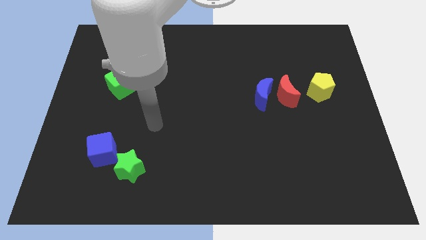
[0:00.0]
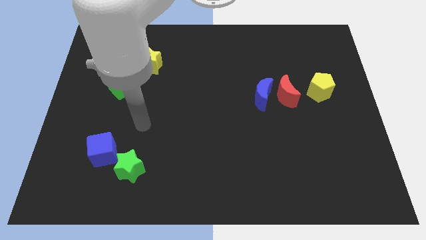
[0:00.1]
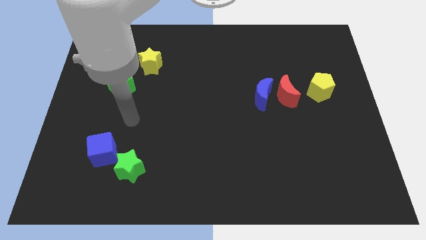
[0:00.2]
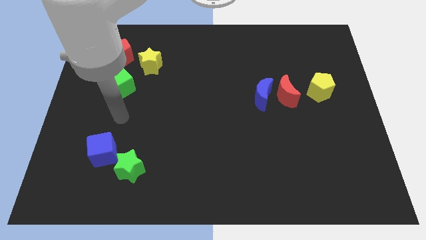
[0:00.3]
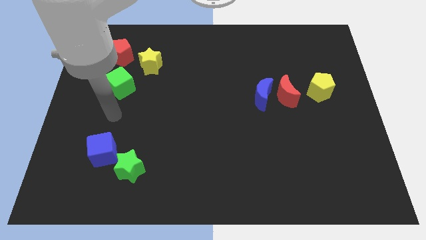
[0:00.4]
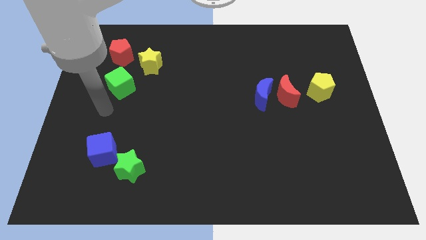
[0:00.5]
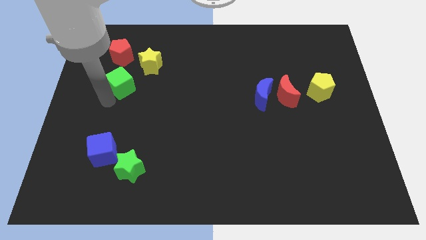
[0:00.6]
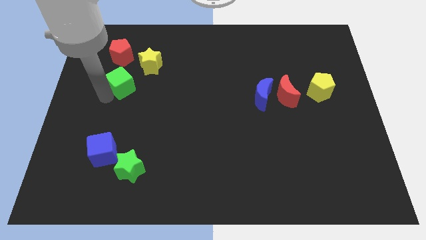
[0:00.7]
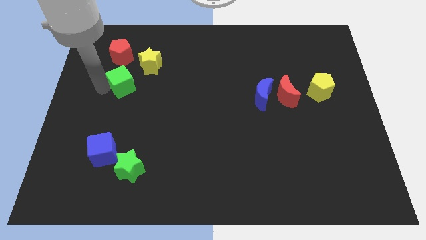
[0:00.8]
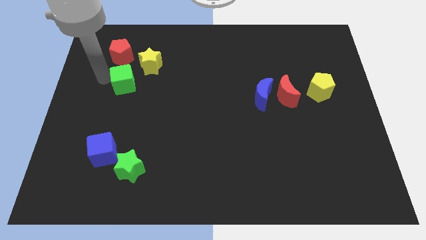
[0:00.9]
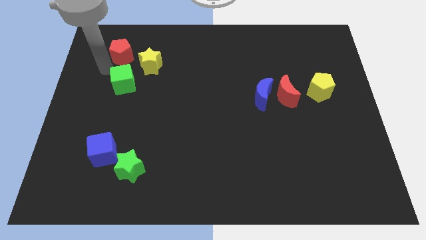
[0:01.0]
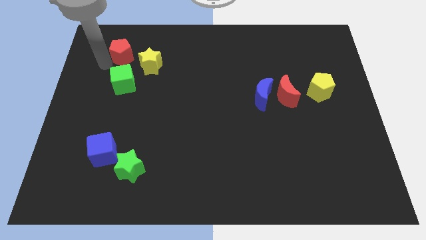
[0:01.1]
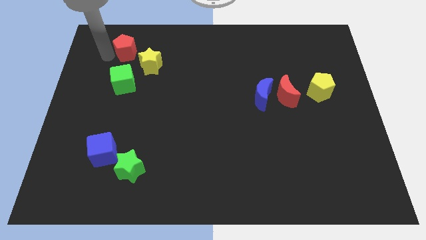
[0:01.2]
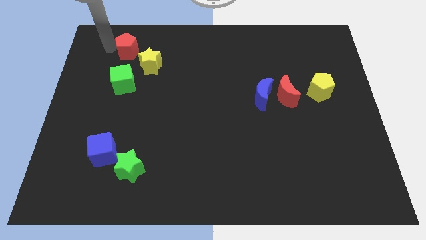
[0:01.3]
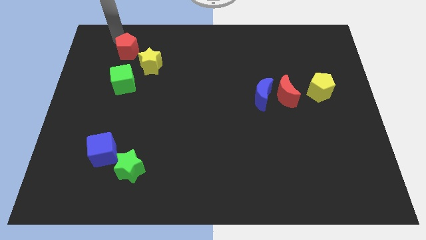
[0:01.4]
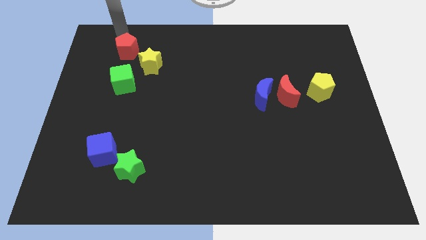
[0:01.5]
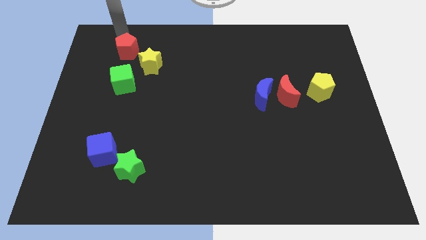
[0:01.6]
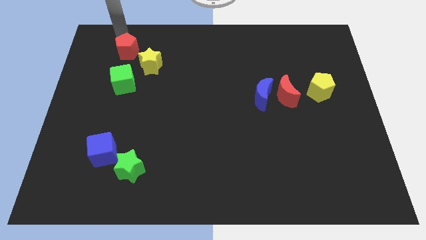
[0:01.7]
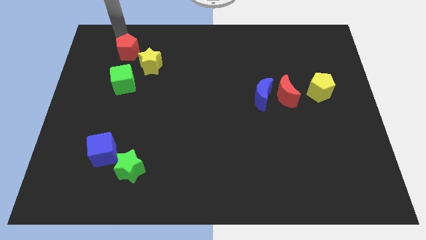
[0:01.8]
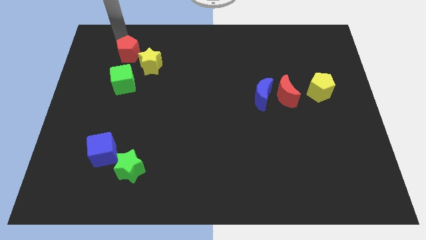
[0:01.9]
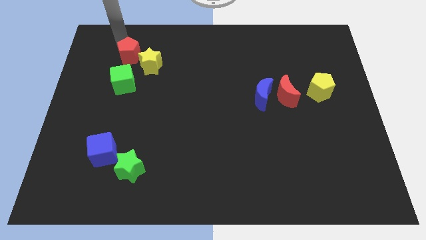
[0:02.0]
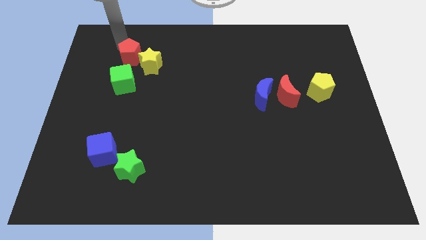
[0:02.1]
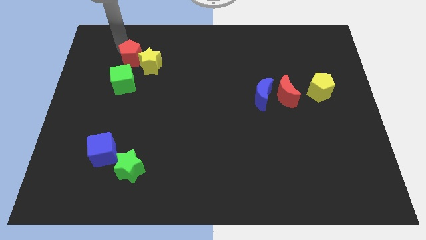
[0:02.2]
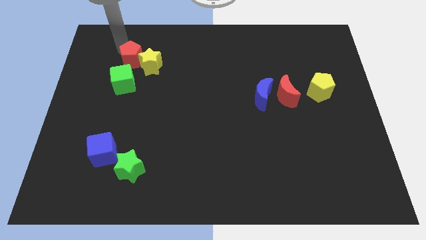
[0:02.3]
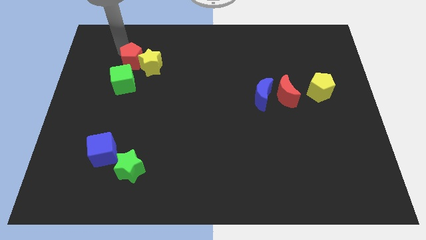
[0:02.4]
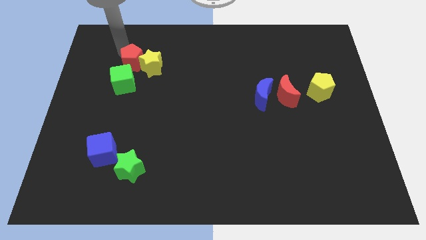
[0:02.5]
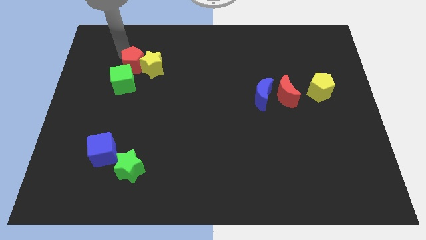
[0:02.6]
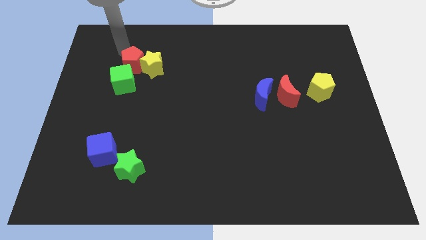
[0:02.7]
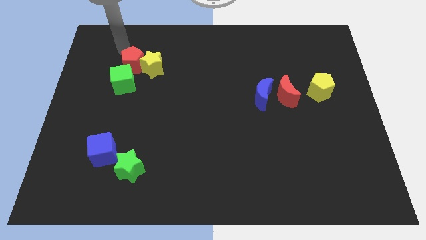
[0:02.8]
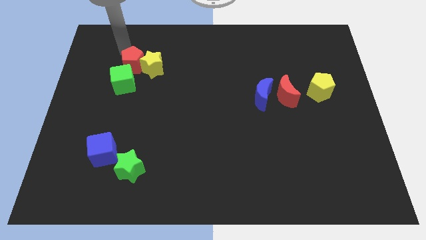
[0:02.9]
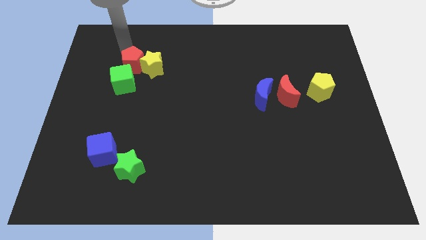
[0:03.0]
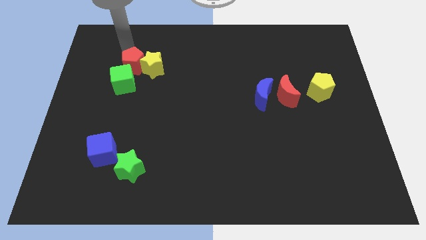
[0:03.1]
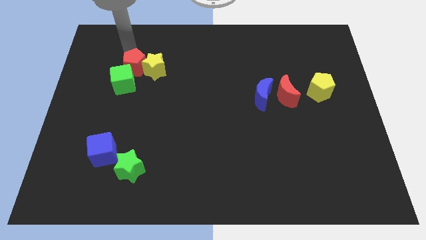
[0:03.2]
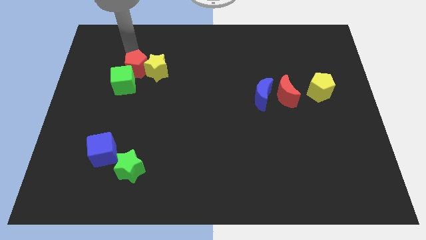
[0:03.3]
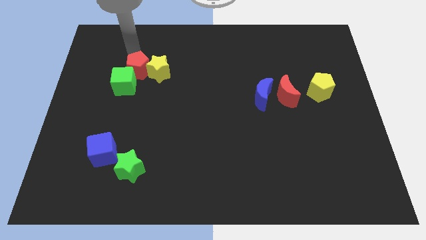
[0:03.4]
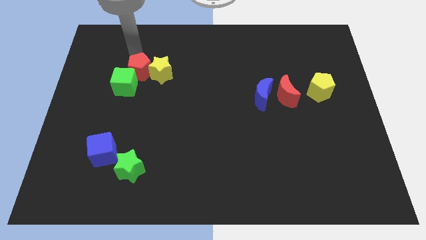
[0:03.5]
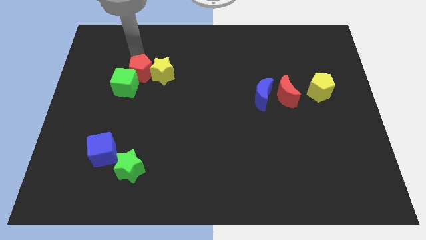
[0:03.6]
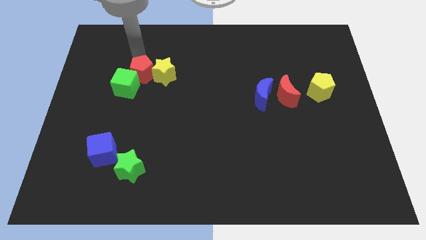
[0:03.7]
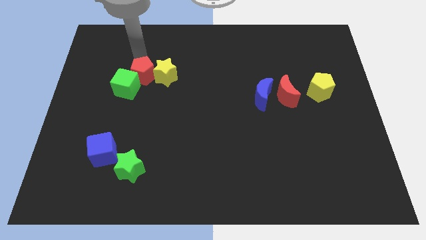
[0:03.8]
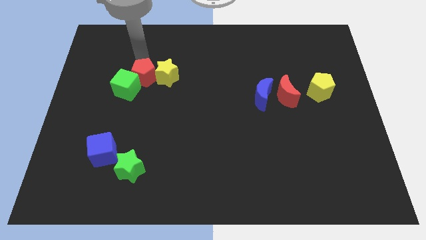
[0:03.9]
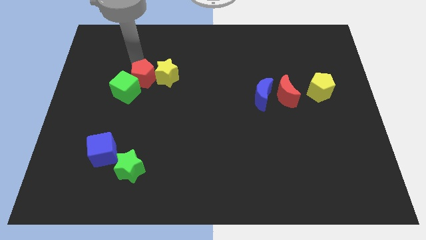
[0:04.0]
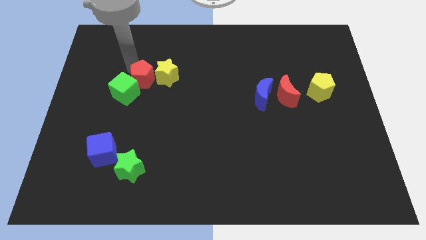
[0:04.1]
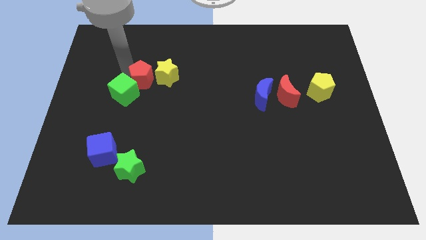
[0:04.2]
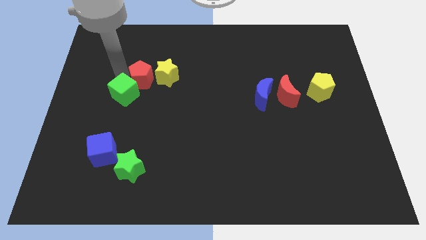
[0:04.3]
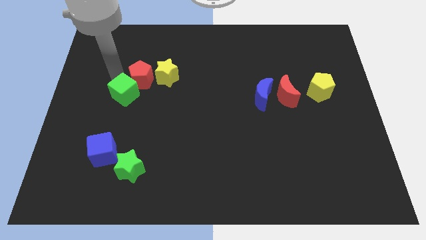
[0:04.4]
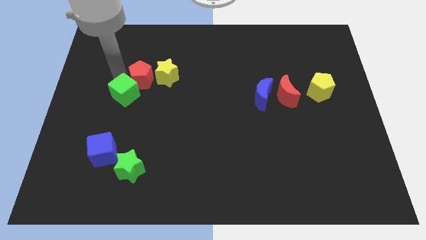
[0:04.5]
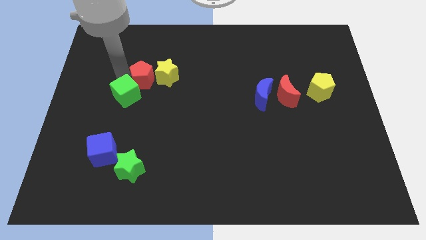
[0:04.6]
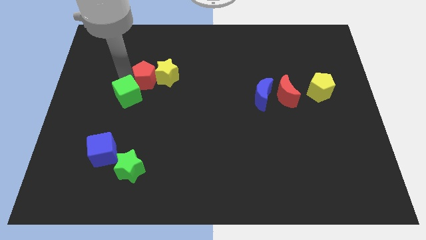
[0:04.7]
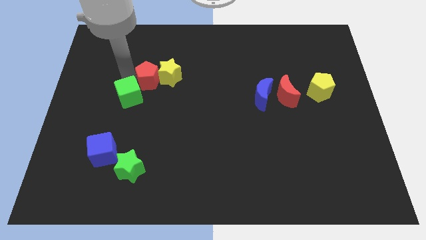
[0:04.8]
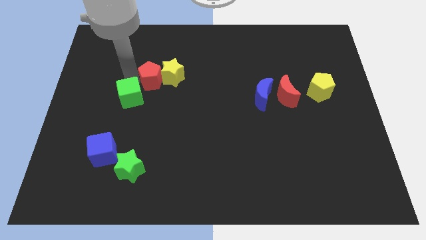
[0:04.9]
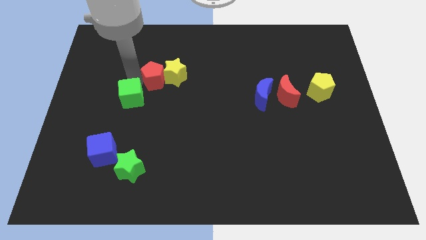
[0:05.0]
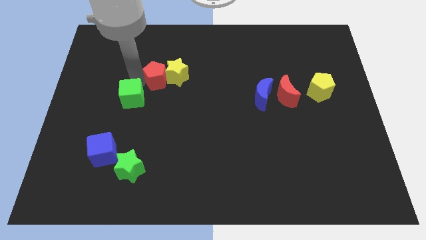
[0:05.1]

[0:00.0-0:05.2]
slightly move the red pentagon right

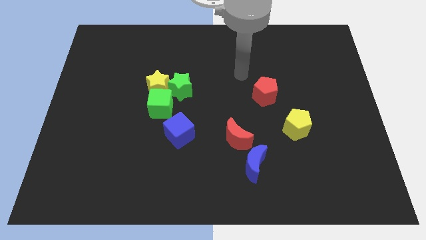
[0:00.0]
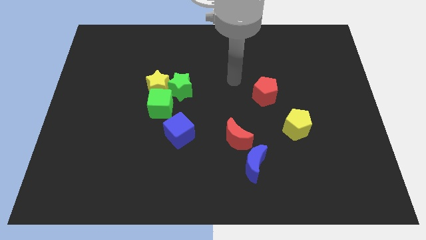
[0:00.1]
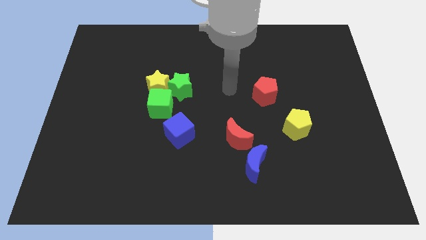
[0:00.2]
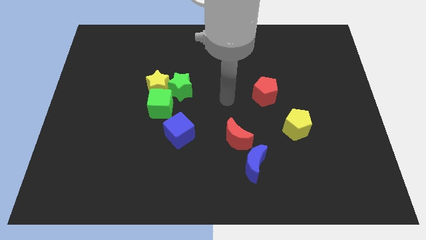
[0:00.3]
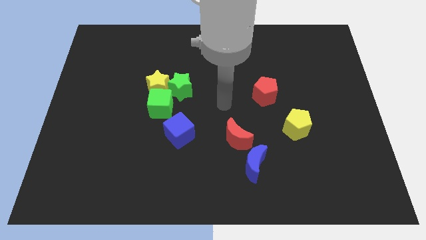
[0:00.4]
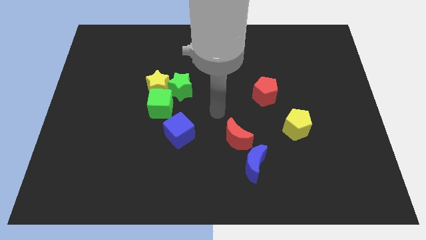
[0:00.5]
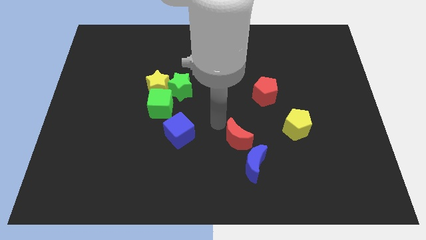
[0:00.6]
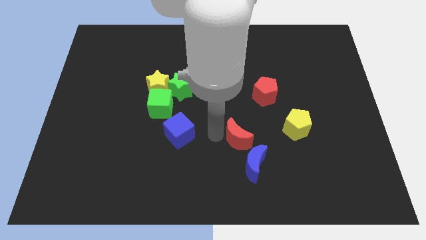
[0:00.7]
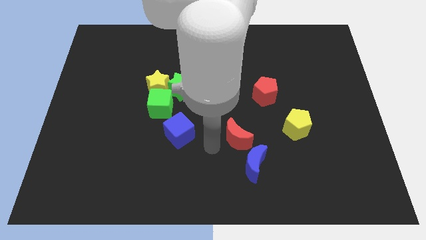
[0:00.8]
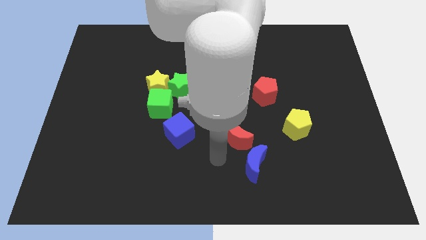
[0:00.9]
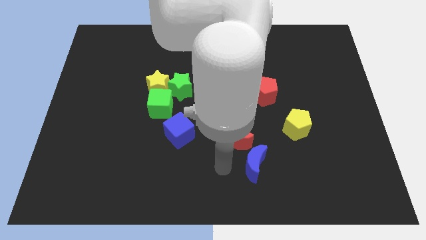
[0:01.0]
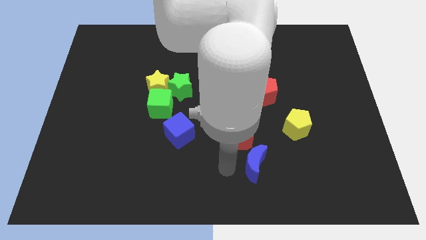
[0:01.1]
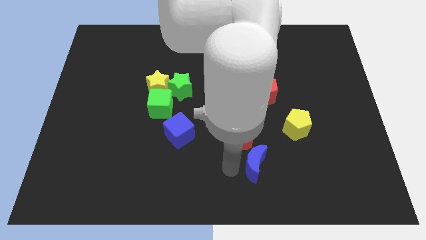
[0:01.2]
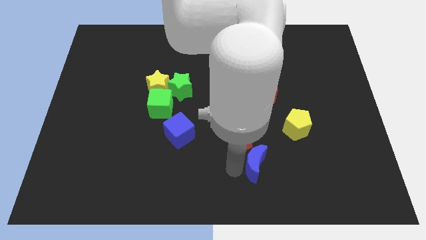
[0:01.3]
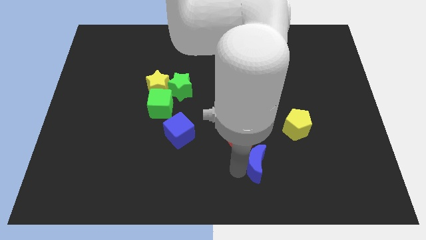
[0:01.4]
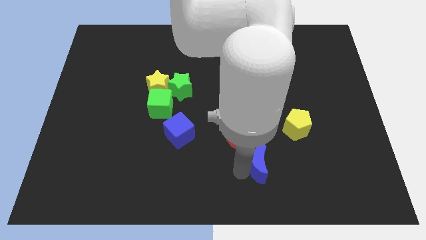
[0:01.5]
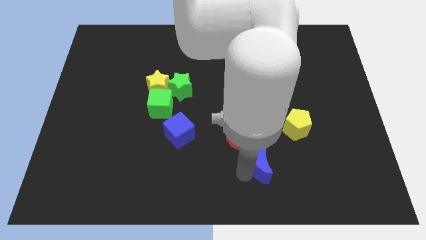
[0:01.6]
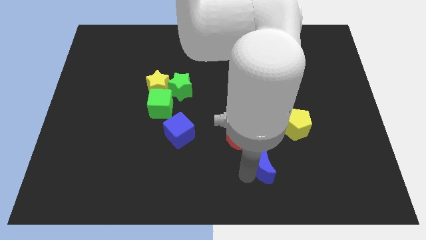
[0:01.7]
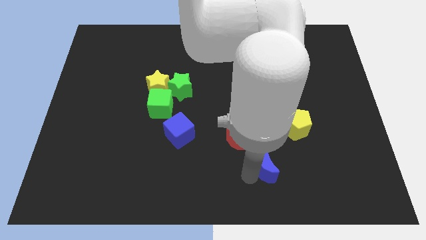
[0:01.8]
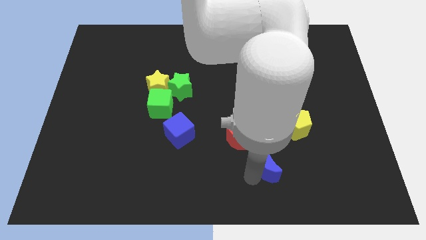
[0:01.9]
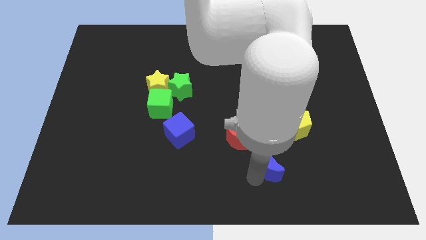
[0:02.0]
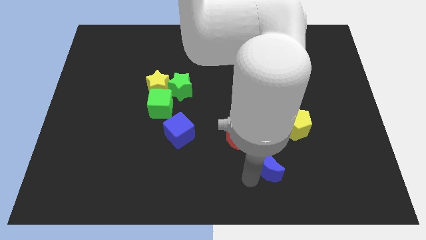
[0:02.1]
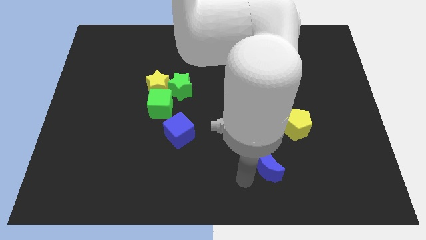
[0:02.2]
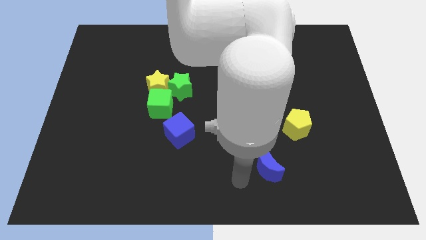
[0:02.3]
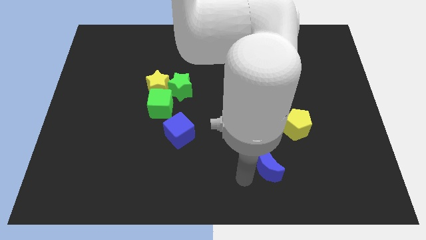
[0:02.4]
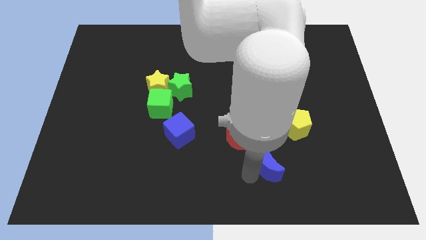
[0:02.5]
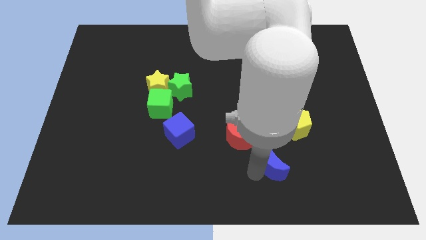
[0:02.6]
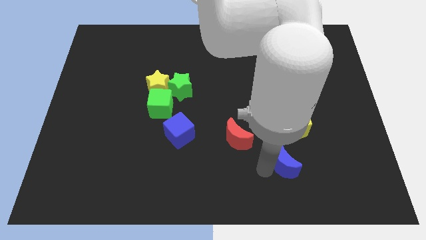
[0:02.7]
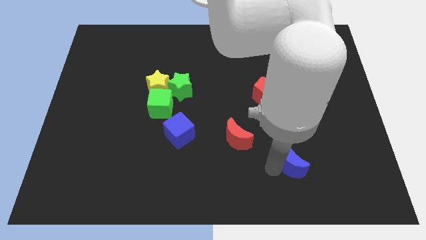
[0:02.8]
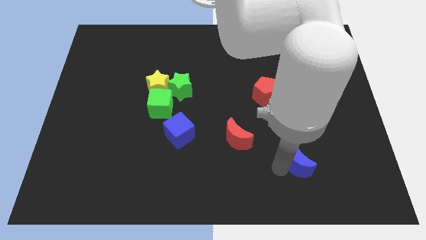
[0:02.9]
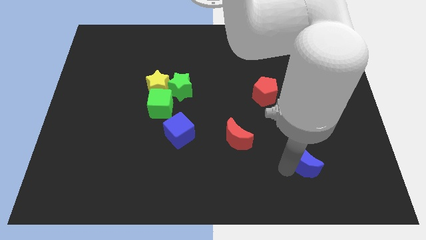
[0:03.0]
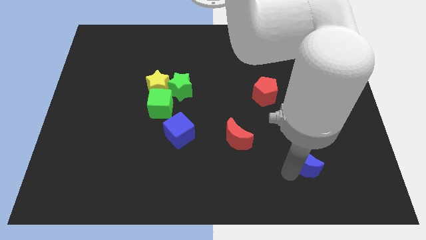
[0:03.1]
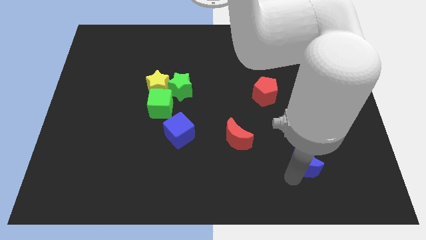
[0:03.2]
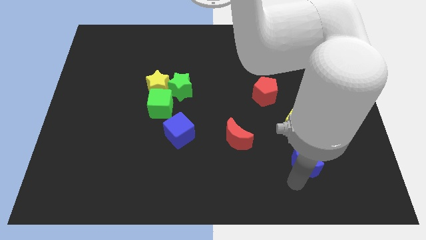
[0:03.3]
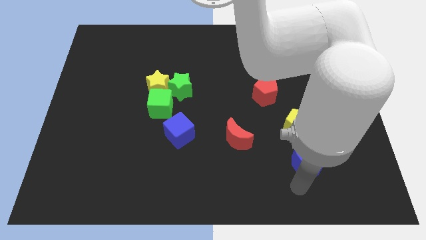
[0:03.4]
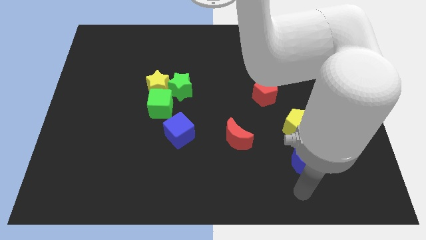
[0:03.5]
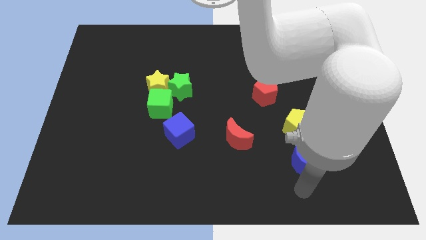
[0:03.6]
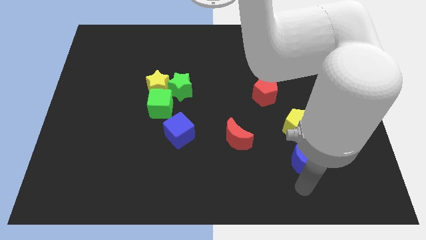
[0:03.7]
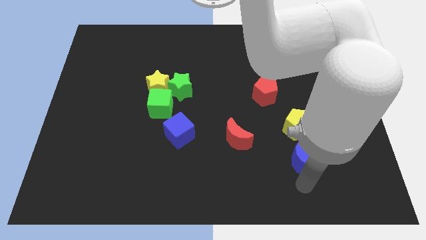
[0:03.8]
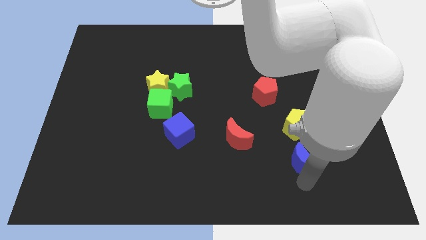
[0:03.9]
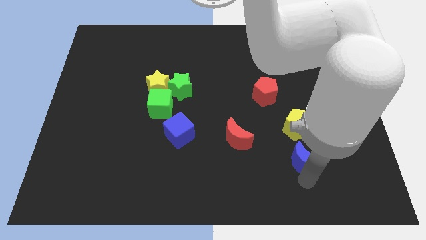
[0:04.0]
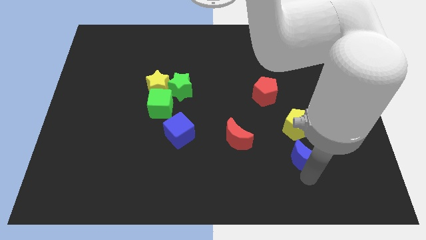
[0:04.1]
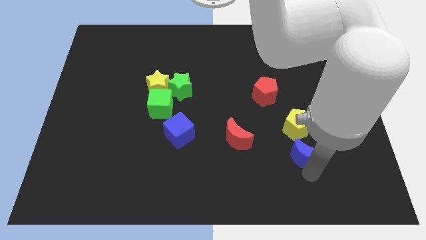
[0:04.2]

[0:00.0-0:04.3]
slide the blue moon diagonally upwards and to the right a bit
